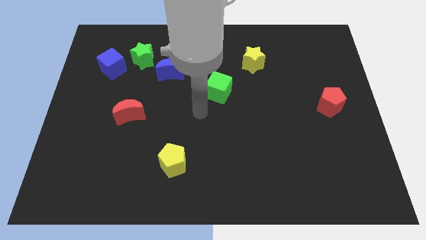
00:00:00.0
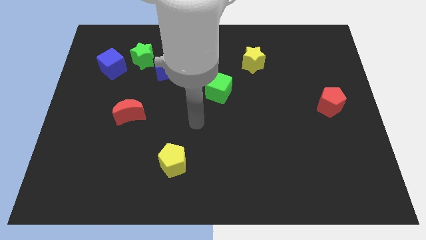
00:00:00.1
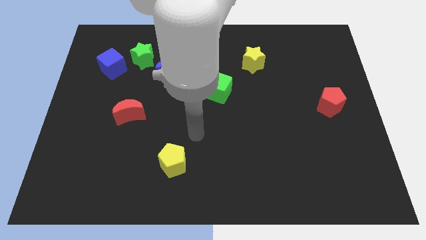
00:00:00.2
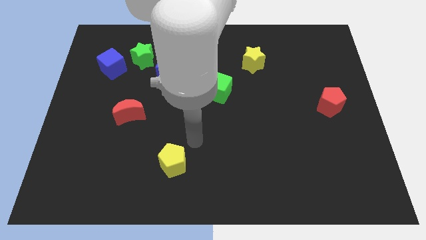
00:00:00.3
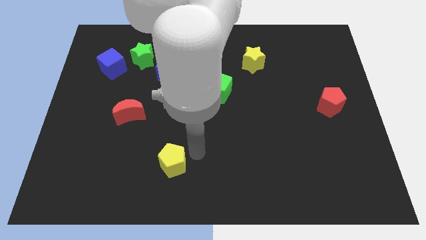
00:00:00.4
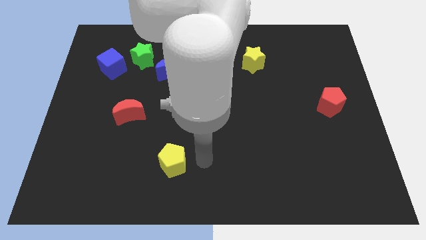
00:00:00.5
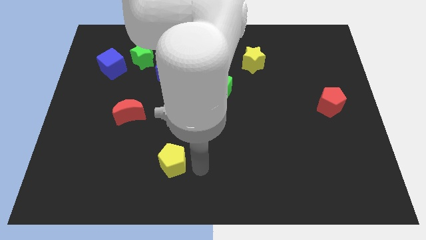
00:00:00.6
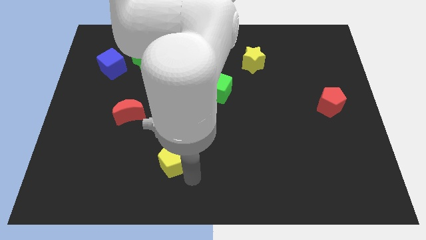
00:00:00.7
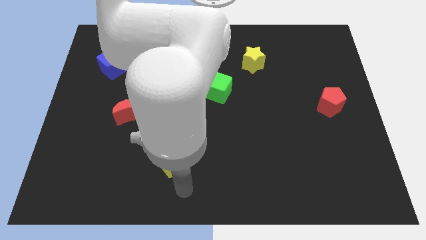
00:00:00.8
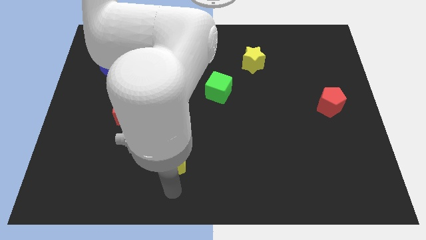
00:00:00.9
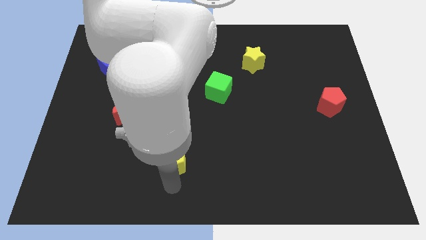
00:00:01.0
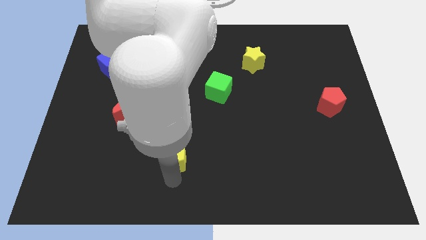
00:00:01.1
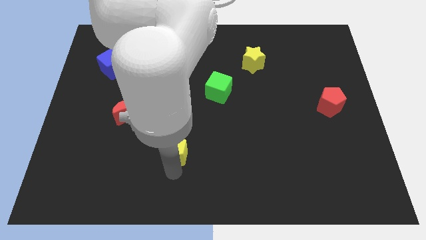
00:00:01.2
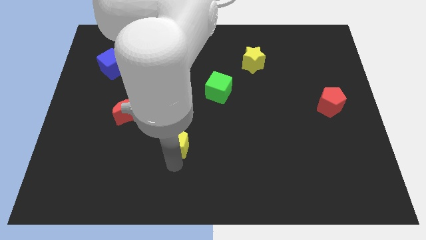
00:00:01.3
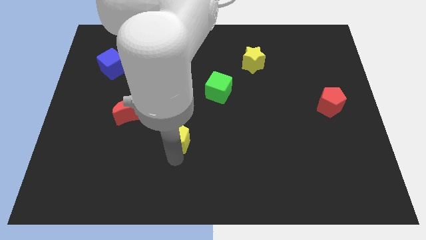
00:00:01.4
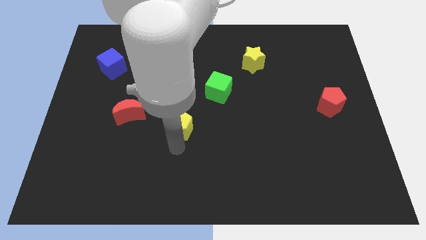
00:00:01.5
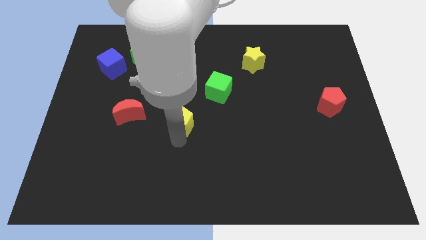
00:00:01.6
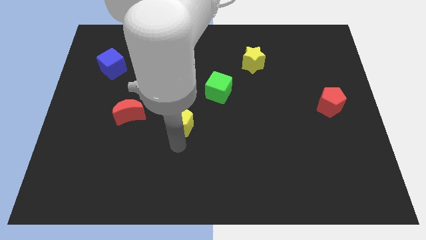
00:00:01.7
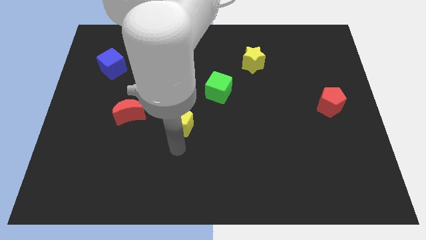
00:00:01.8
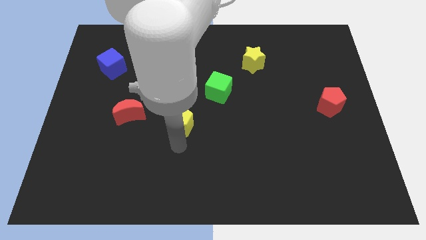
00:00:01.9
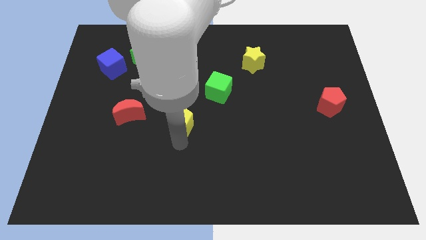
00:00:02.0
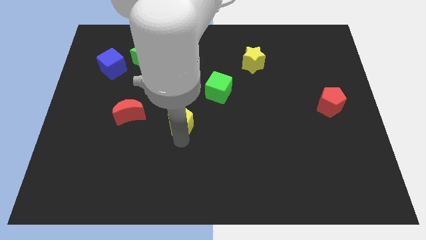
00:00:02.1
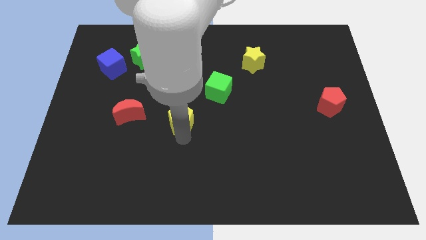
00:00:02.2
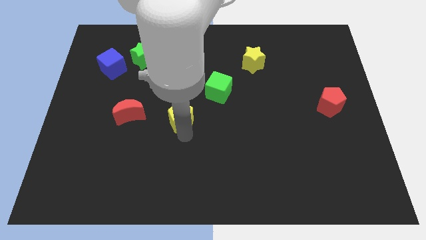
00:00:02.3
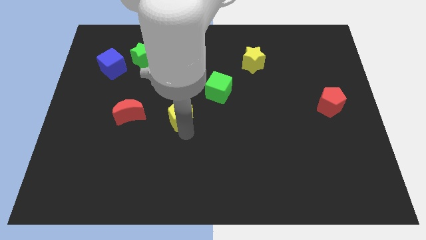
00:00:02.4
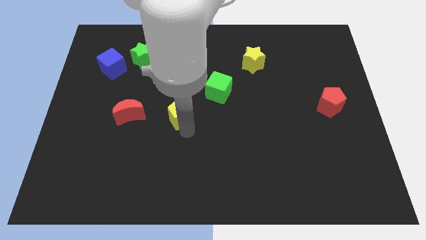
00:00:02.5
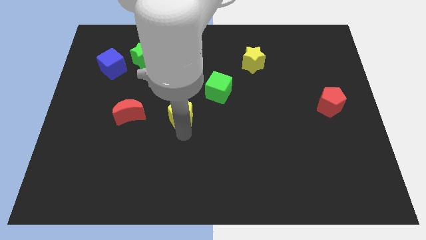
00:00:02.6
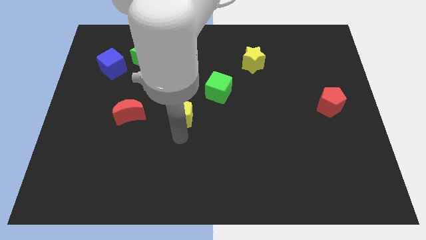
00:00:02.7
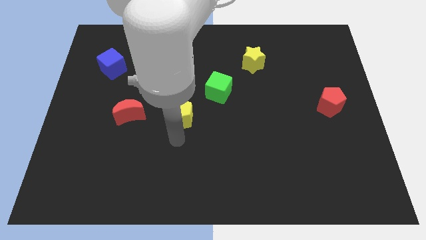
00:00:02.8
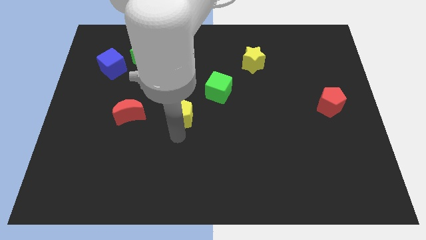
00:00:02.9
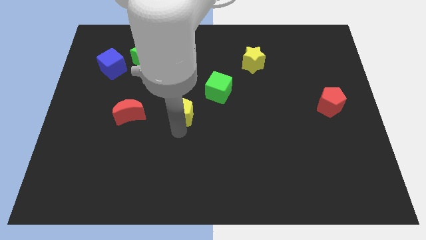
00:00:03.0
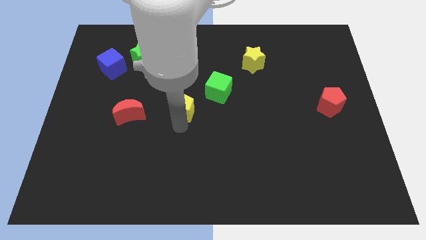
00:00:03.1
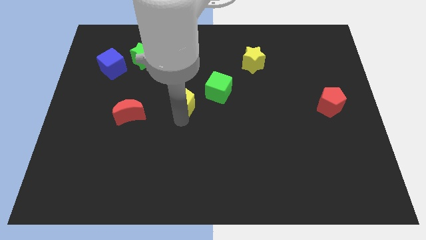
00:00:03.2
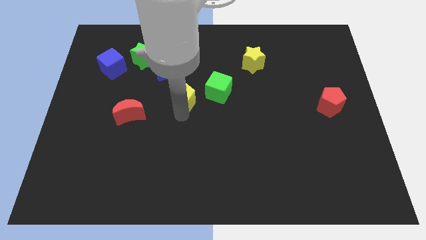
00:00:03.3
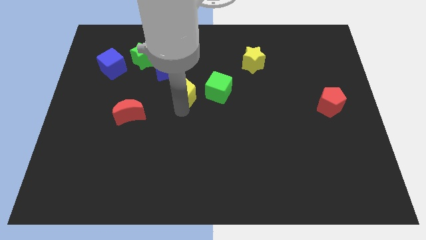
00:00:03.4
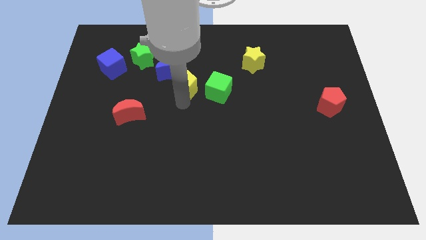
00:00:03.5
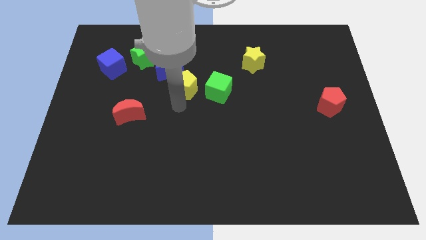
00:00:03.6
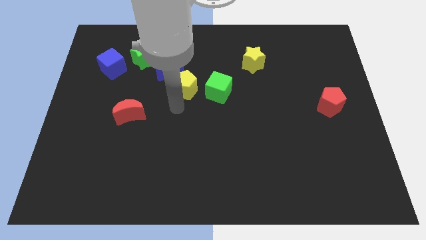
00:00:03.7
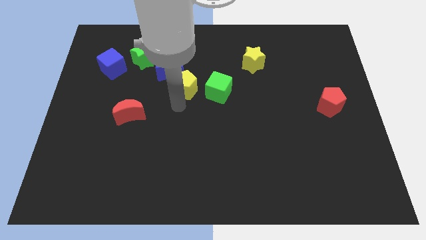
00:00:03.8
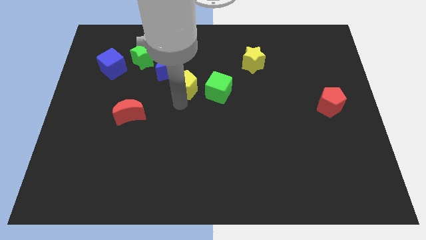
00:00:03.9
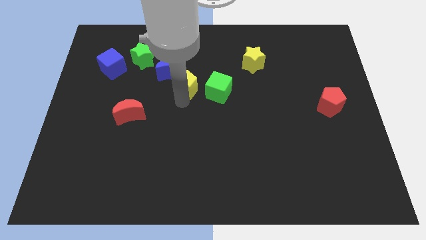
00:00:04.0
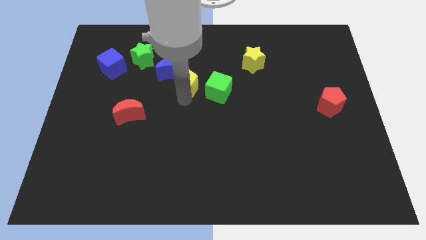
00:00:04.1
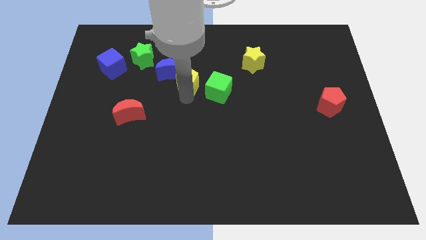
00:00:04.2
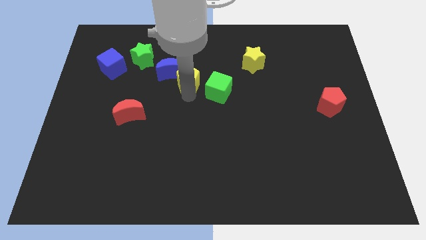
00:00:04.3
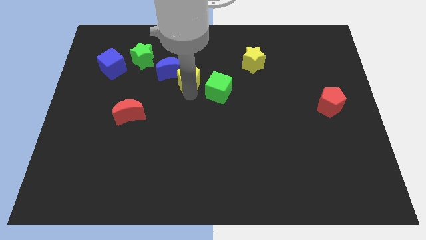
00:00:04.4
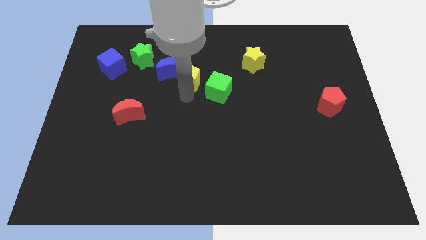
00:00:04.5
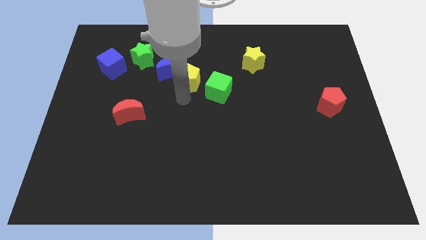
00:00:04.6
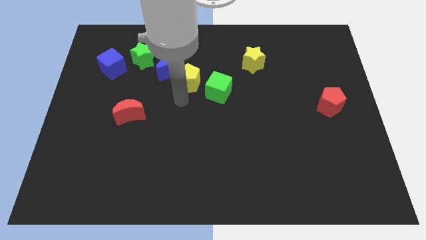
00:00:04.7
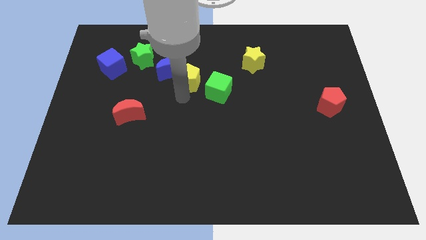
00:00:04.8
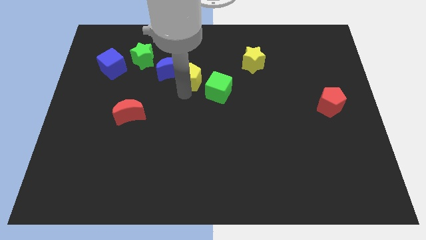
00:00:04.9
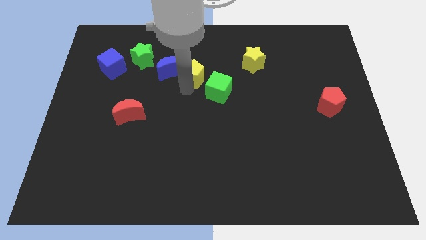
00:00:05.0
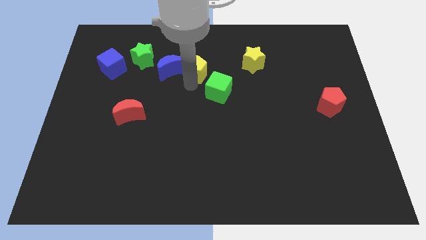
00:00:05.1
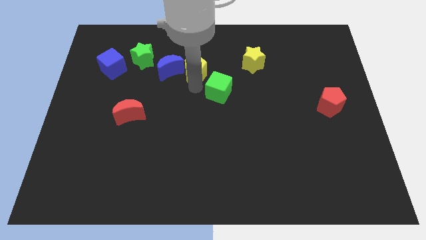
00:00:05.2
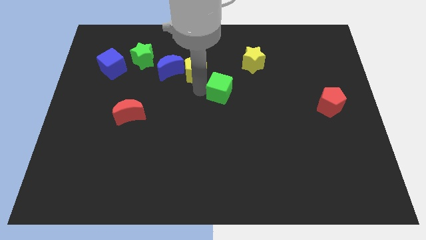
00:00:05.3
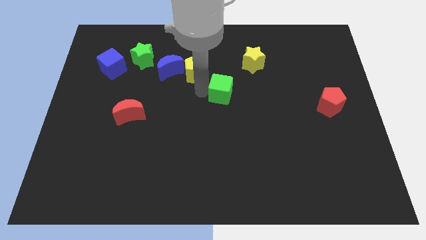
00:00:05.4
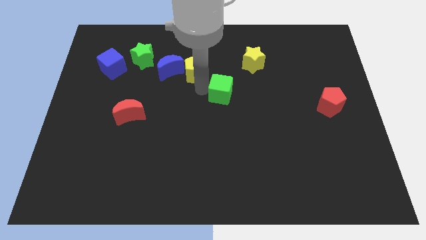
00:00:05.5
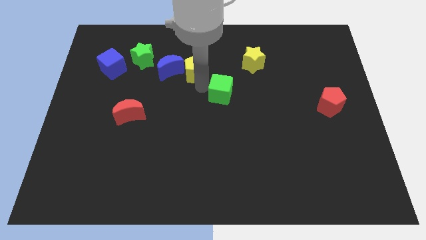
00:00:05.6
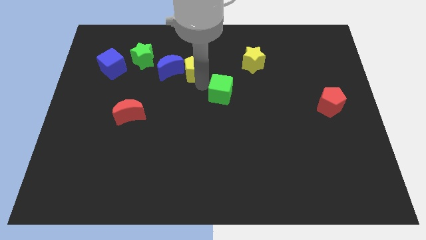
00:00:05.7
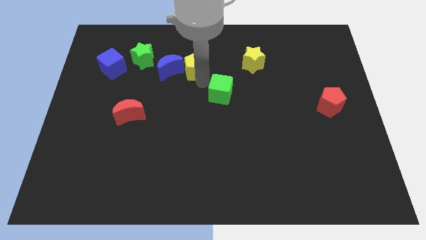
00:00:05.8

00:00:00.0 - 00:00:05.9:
push the yellow pentagon to the top right of the blue moon
